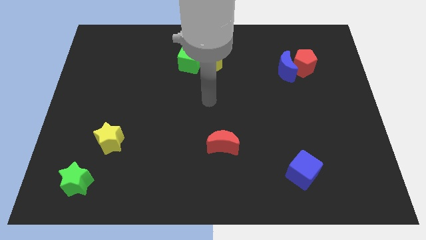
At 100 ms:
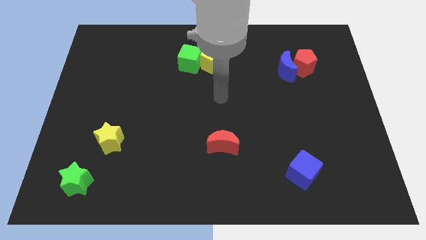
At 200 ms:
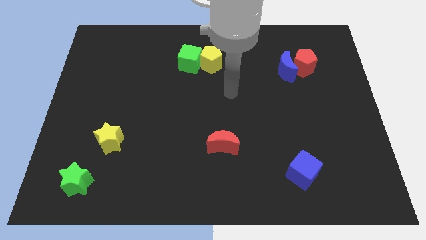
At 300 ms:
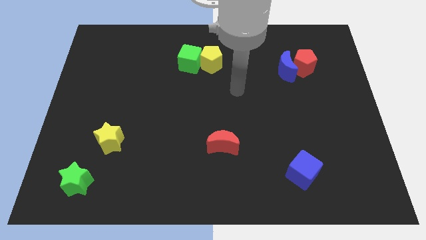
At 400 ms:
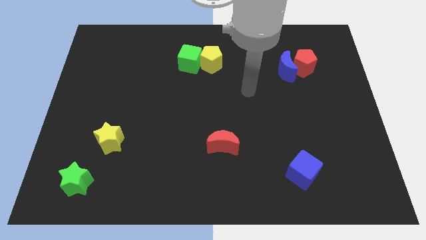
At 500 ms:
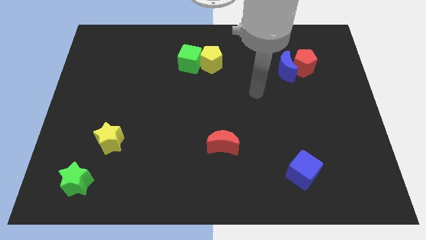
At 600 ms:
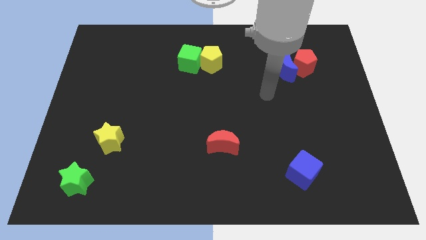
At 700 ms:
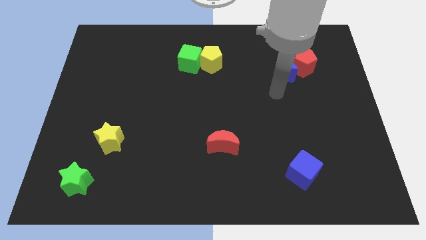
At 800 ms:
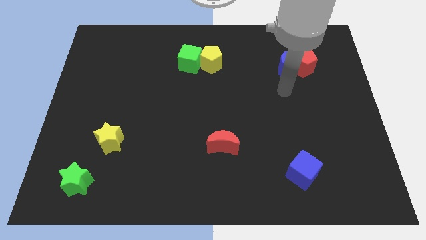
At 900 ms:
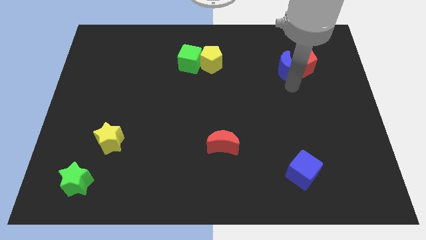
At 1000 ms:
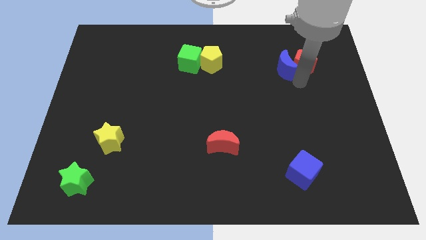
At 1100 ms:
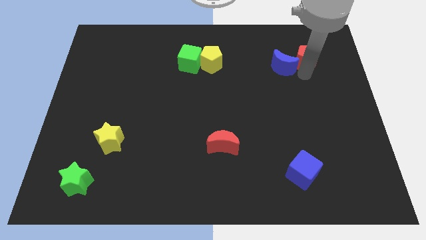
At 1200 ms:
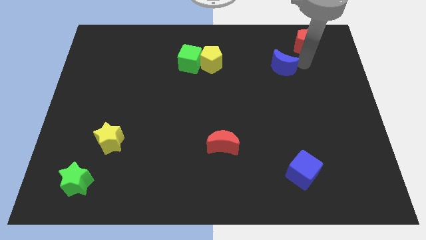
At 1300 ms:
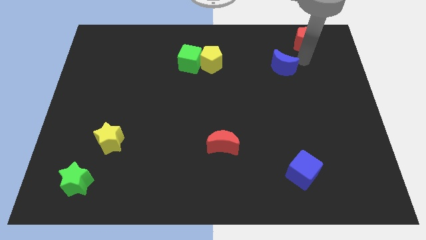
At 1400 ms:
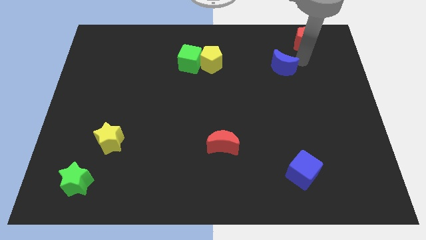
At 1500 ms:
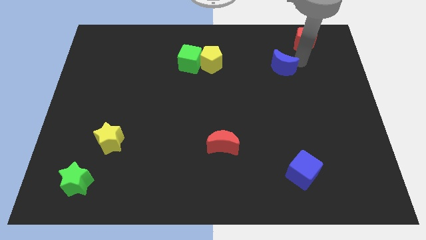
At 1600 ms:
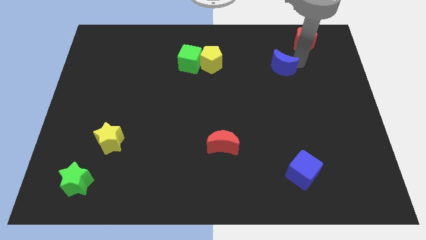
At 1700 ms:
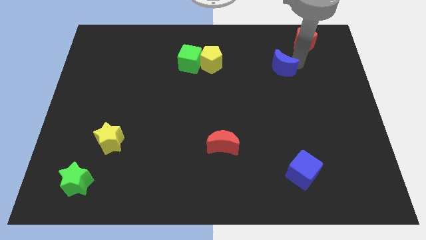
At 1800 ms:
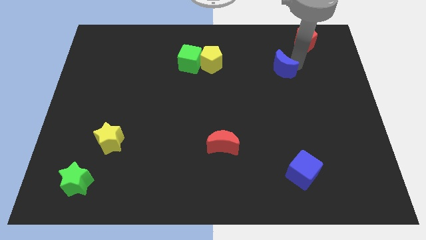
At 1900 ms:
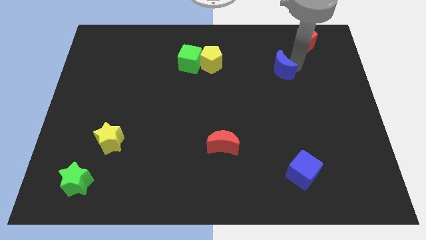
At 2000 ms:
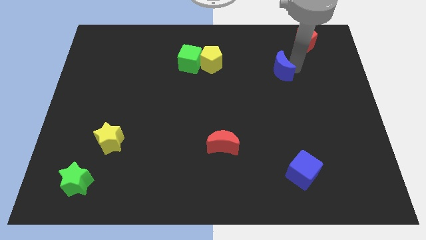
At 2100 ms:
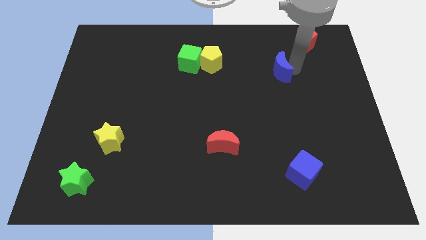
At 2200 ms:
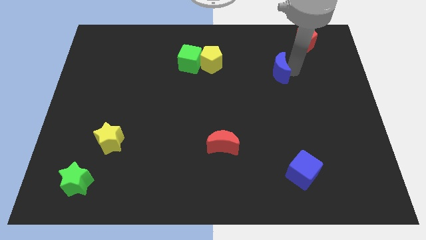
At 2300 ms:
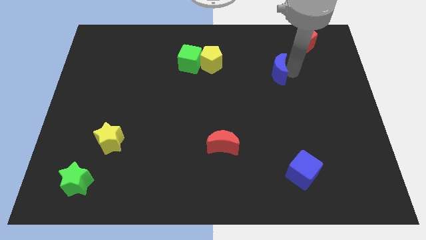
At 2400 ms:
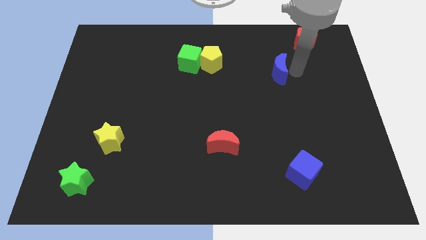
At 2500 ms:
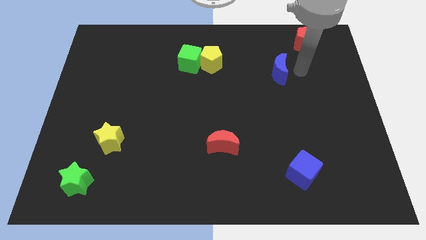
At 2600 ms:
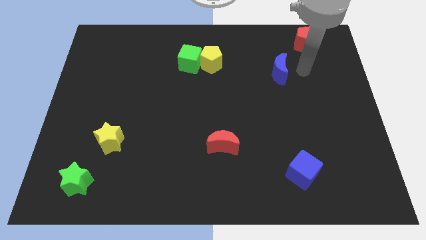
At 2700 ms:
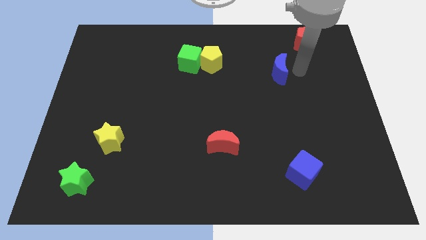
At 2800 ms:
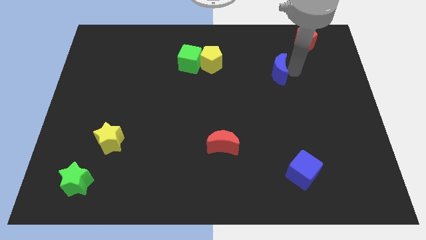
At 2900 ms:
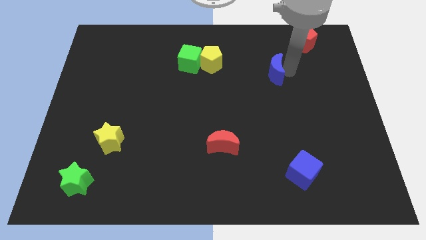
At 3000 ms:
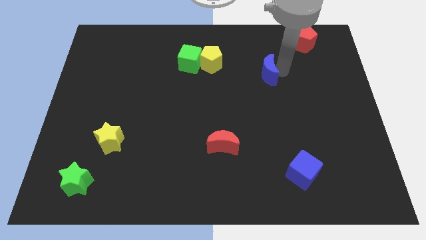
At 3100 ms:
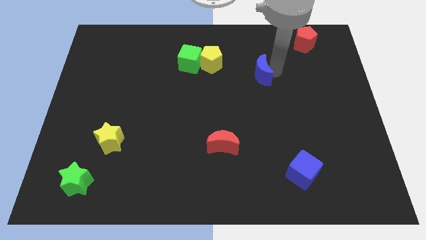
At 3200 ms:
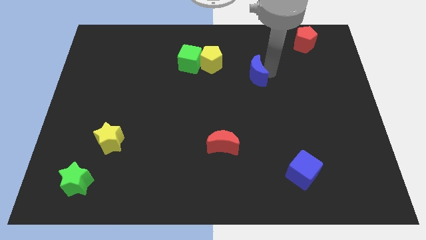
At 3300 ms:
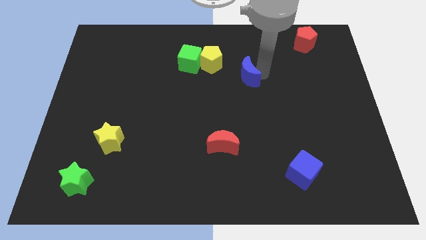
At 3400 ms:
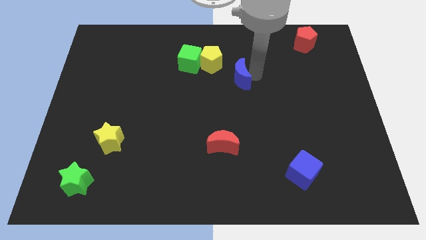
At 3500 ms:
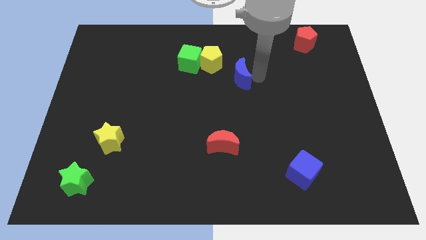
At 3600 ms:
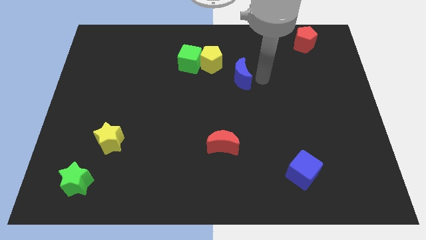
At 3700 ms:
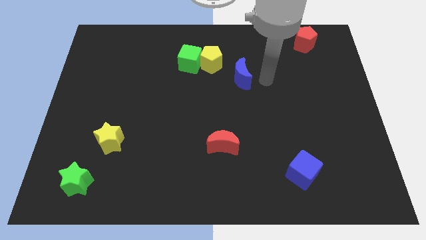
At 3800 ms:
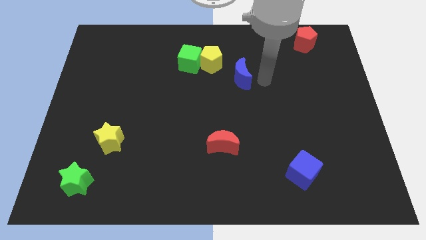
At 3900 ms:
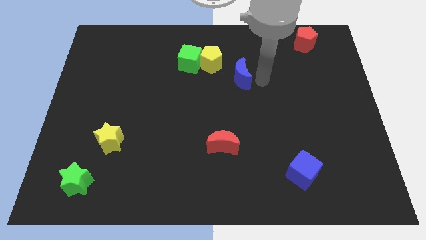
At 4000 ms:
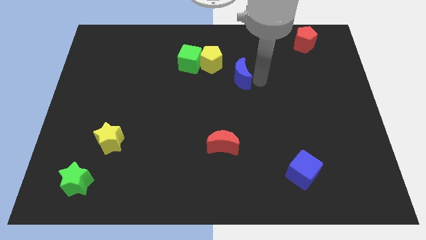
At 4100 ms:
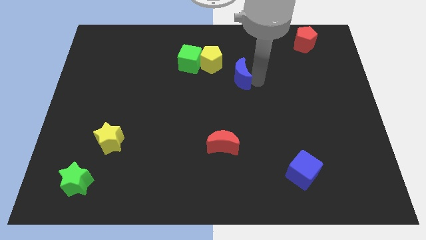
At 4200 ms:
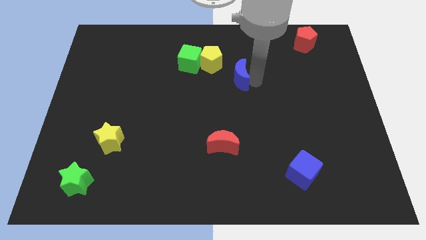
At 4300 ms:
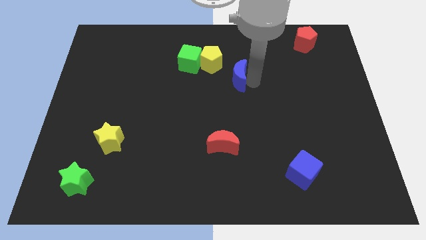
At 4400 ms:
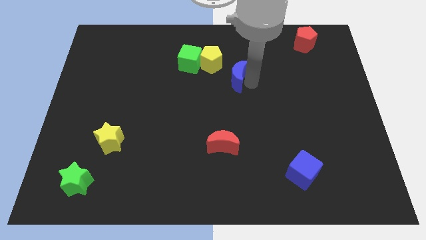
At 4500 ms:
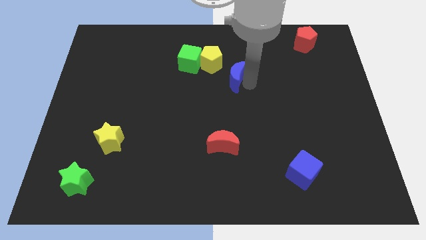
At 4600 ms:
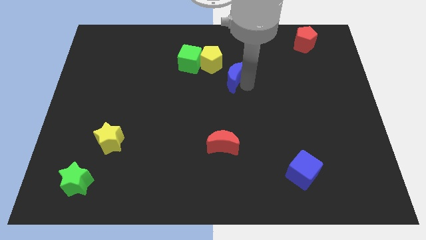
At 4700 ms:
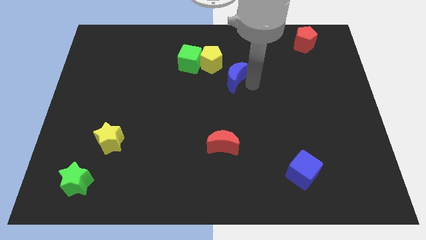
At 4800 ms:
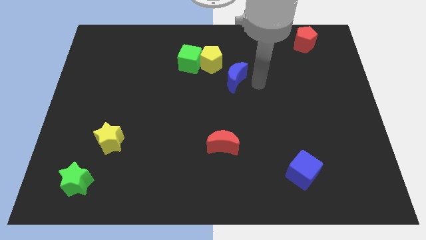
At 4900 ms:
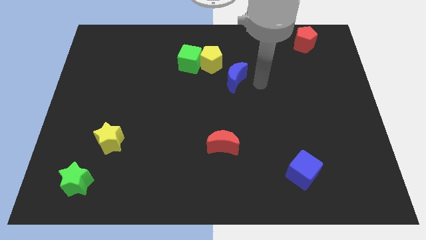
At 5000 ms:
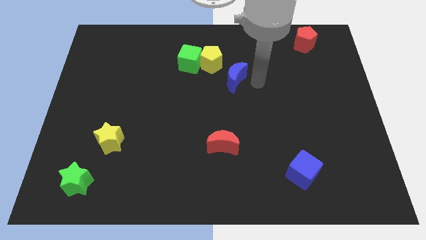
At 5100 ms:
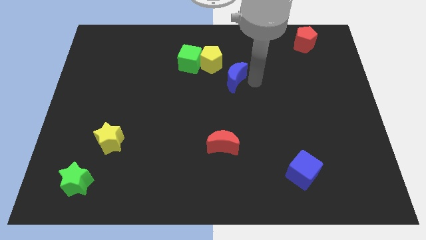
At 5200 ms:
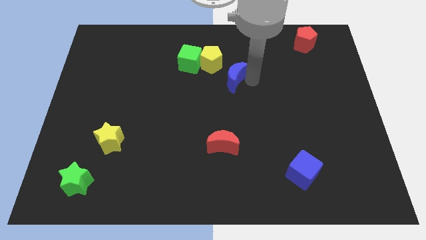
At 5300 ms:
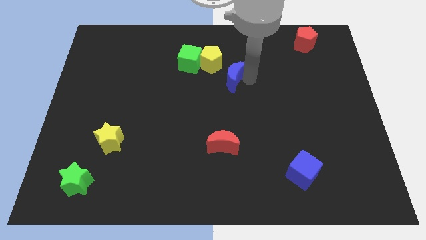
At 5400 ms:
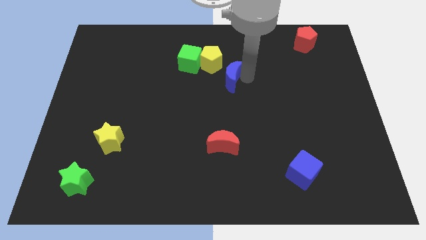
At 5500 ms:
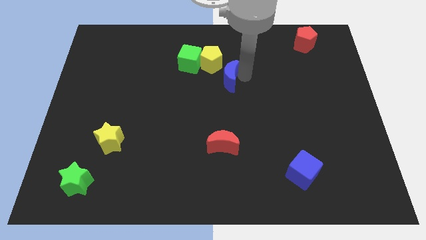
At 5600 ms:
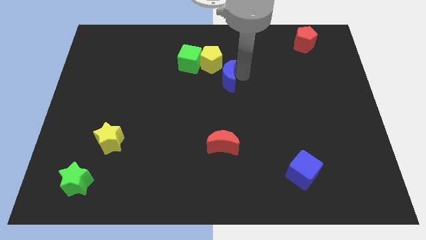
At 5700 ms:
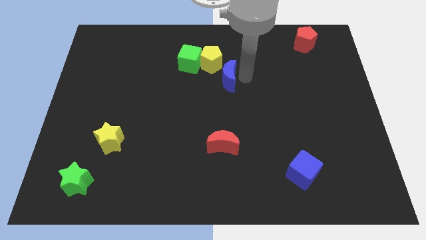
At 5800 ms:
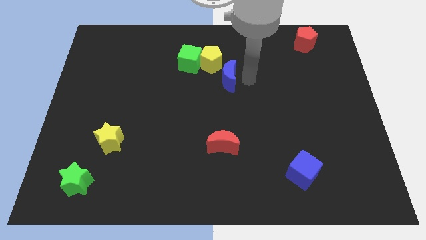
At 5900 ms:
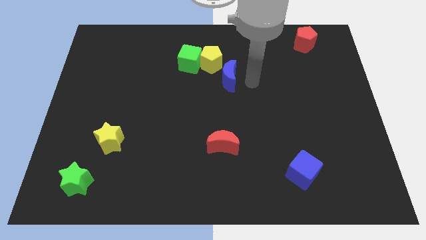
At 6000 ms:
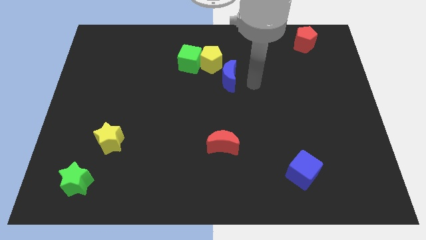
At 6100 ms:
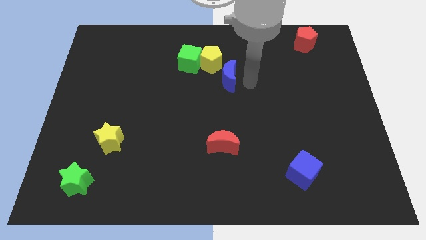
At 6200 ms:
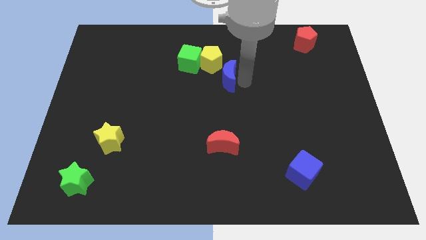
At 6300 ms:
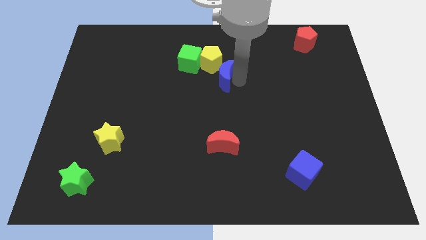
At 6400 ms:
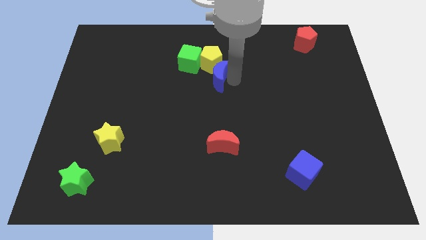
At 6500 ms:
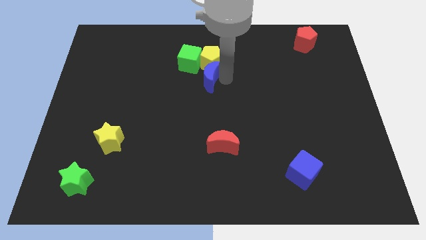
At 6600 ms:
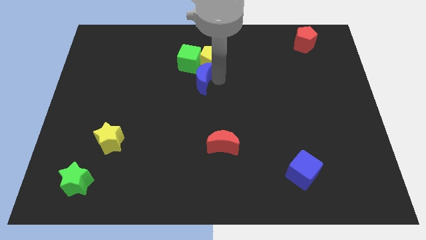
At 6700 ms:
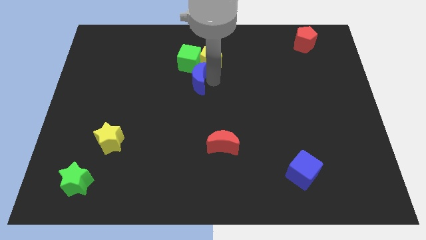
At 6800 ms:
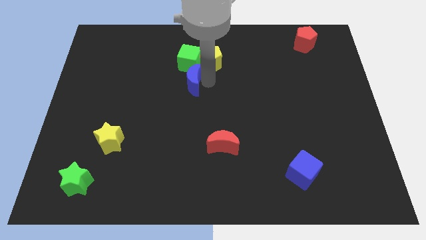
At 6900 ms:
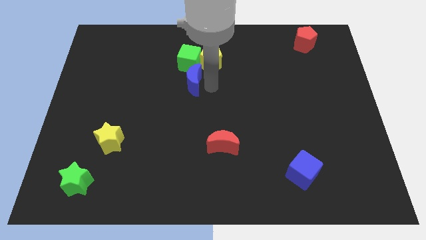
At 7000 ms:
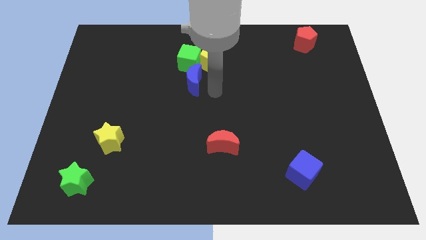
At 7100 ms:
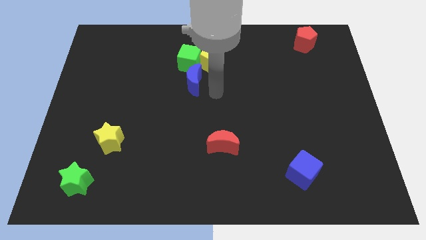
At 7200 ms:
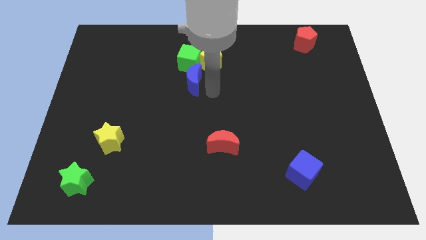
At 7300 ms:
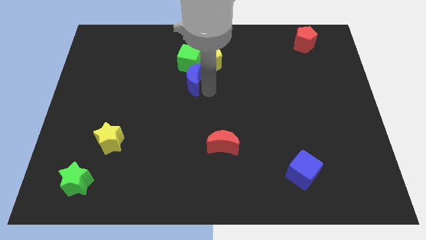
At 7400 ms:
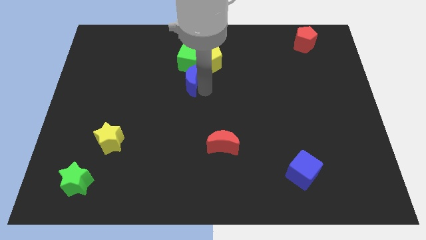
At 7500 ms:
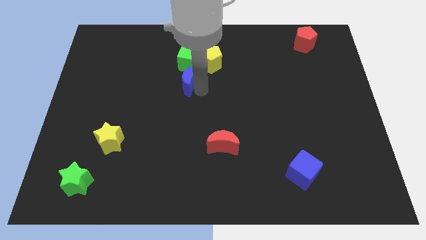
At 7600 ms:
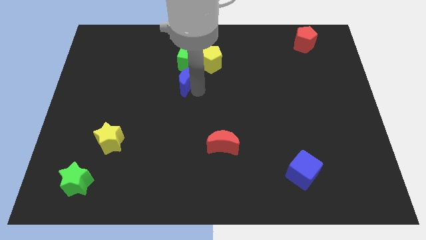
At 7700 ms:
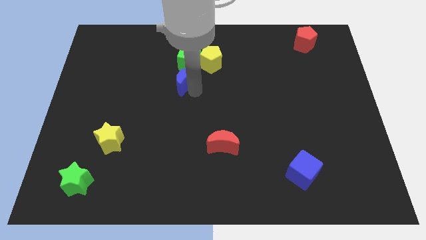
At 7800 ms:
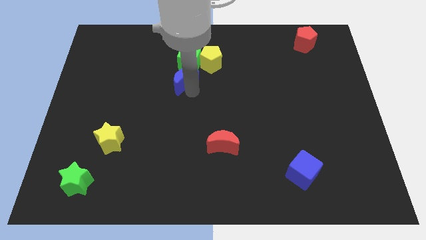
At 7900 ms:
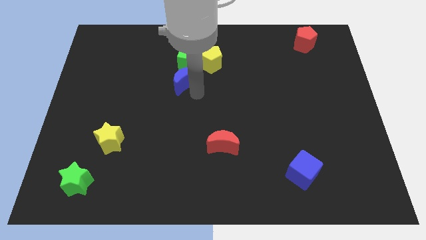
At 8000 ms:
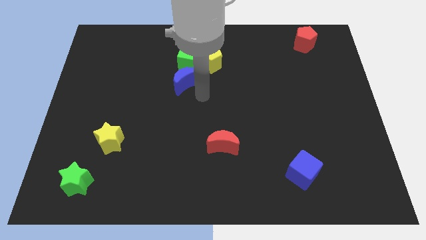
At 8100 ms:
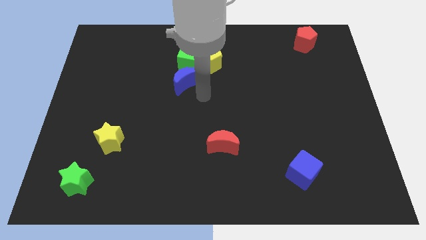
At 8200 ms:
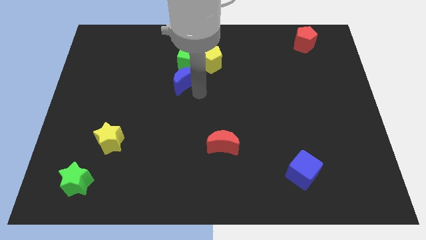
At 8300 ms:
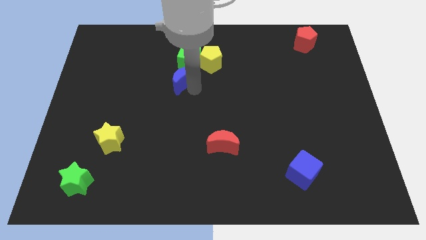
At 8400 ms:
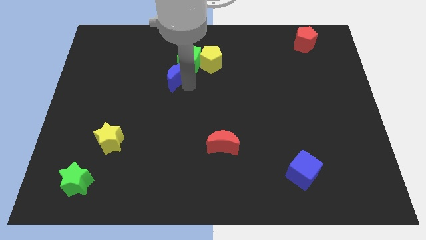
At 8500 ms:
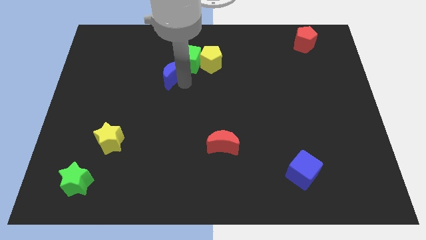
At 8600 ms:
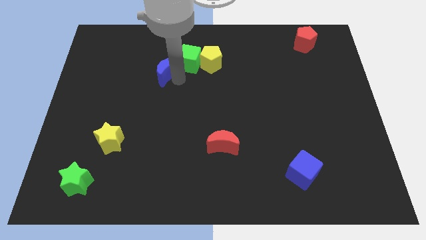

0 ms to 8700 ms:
put the blue moon to the left of the green cube
